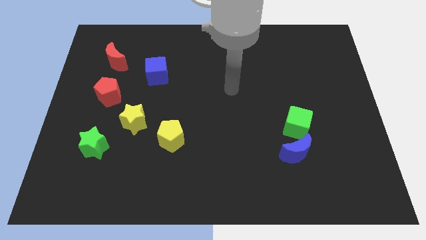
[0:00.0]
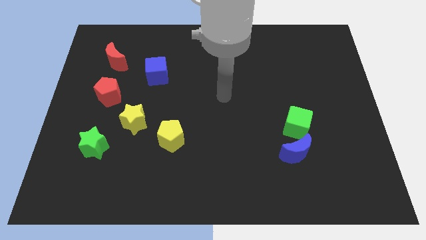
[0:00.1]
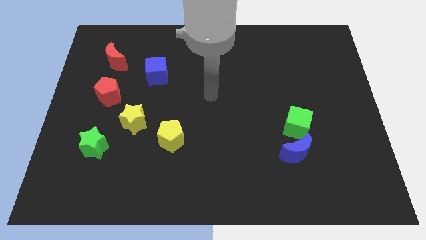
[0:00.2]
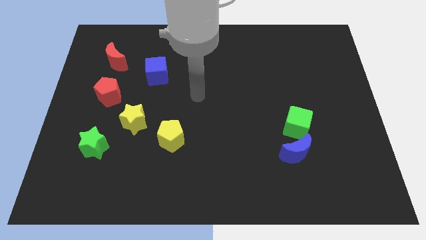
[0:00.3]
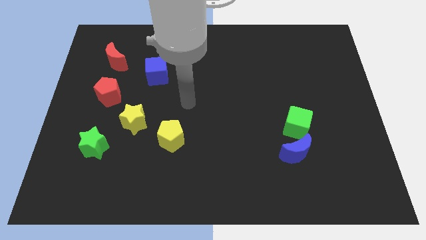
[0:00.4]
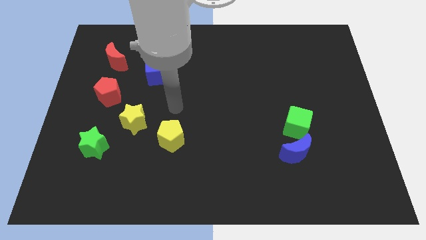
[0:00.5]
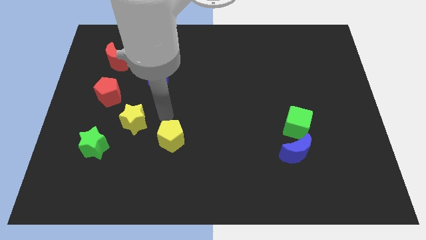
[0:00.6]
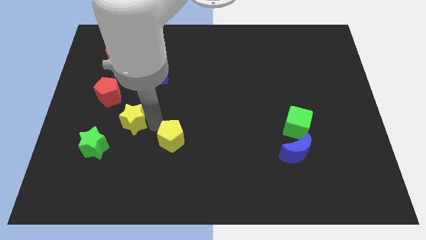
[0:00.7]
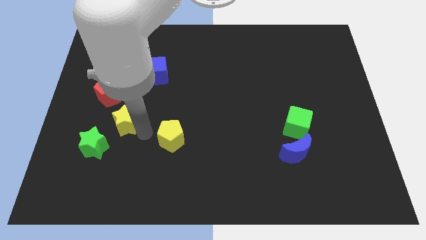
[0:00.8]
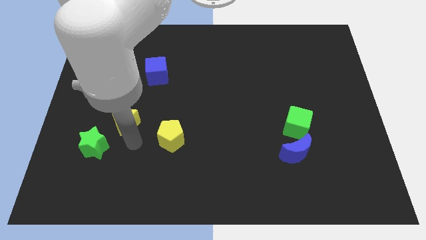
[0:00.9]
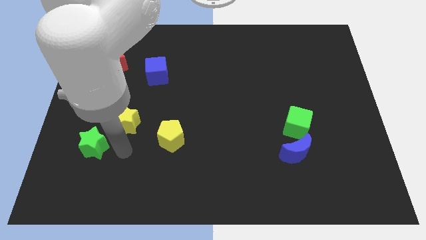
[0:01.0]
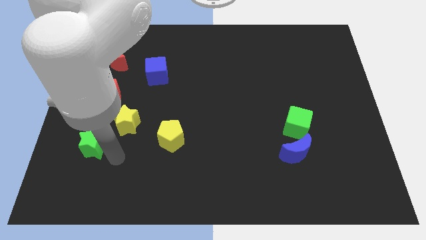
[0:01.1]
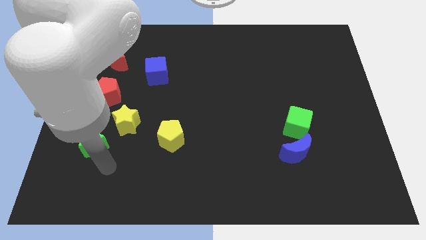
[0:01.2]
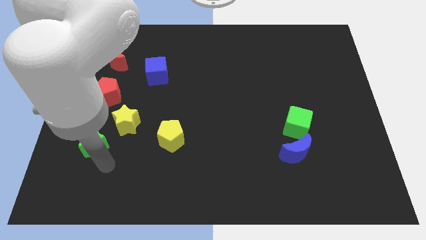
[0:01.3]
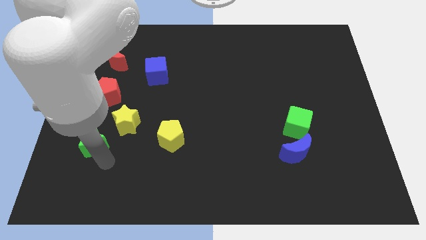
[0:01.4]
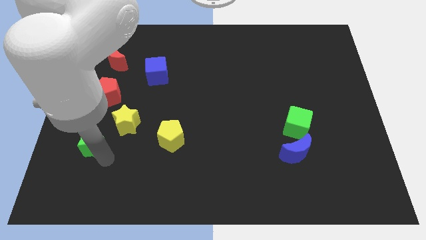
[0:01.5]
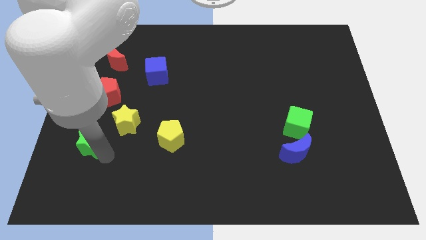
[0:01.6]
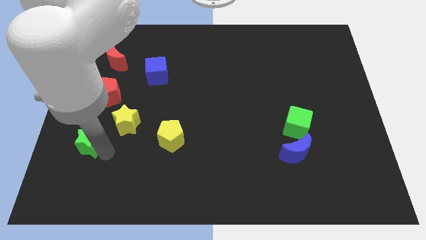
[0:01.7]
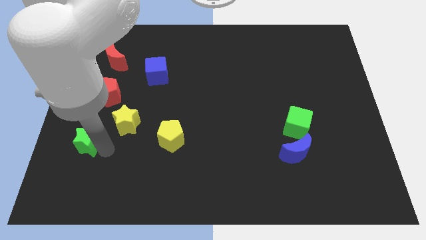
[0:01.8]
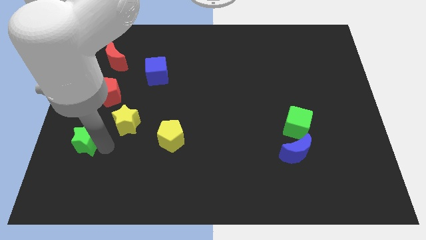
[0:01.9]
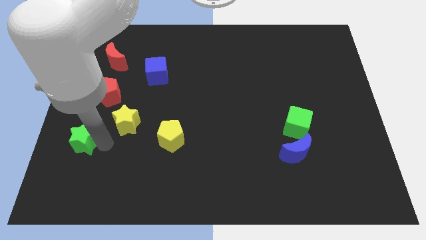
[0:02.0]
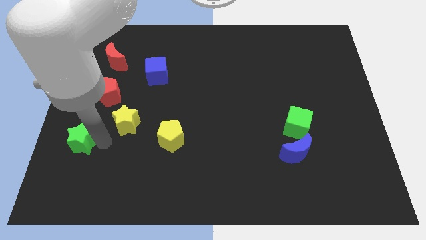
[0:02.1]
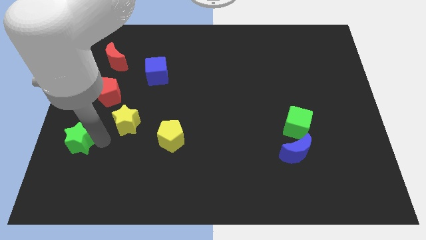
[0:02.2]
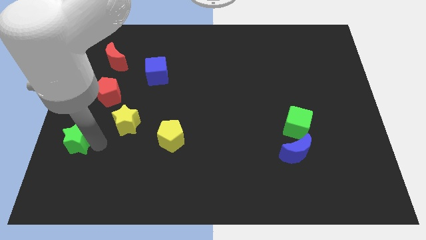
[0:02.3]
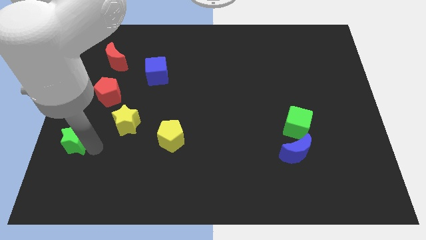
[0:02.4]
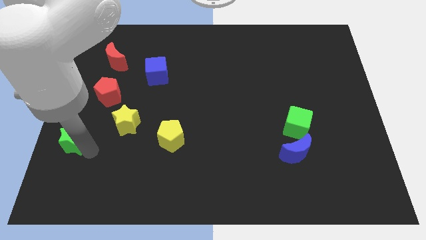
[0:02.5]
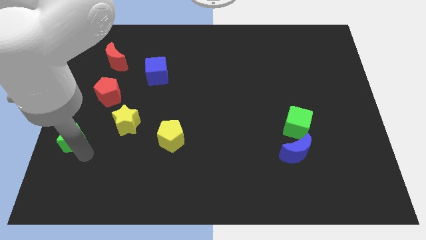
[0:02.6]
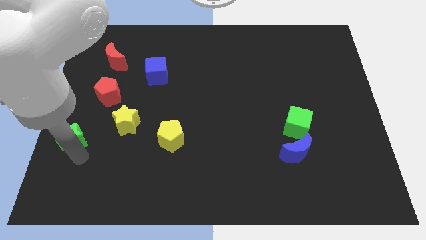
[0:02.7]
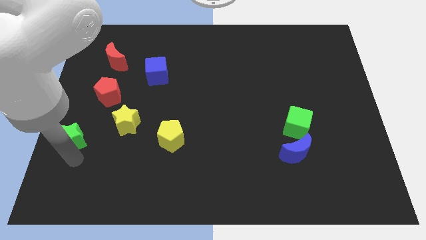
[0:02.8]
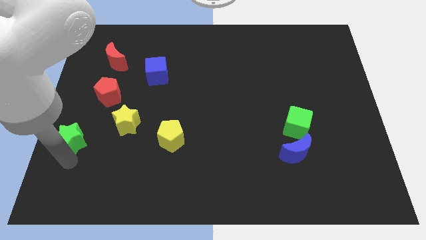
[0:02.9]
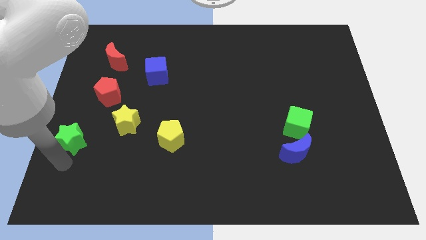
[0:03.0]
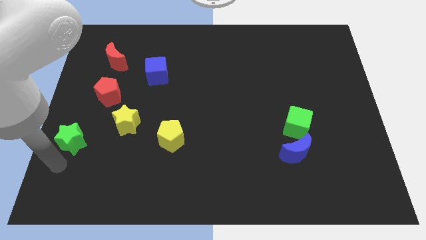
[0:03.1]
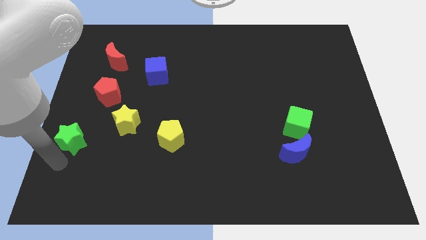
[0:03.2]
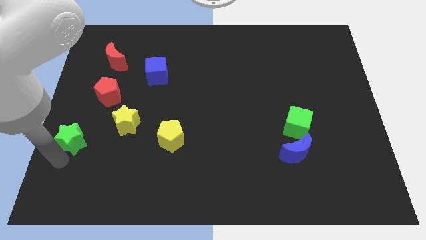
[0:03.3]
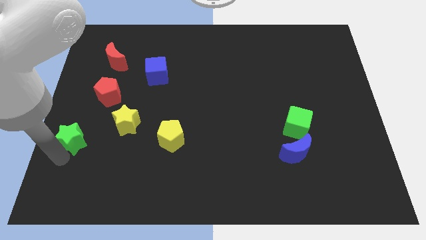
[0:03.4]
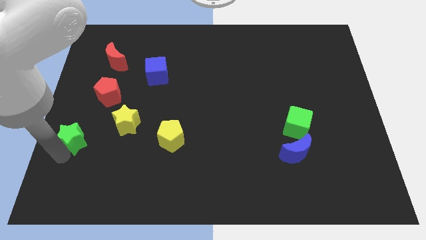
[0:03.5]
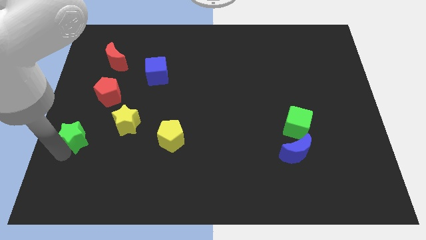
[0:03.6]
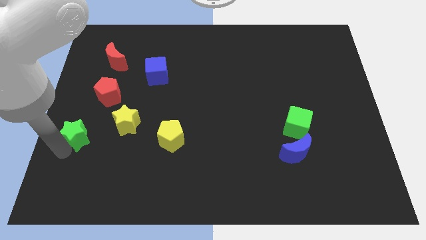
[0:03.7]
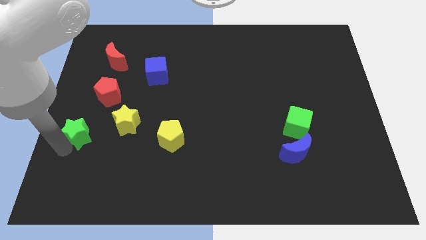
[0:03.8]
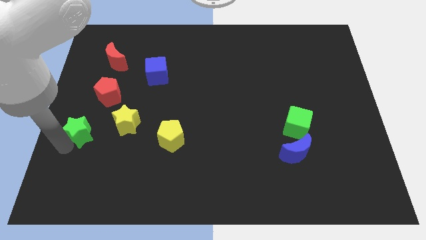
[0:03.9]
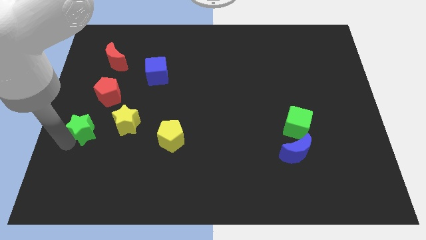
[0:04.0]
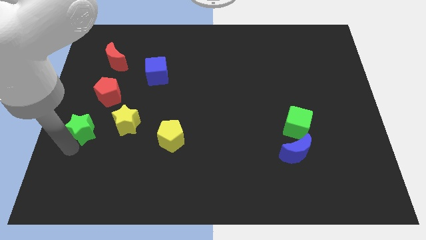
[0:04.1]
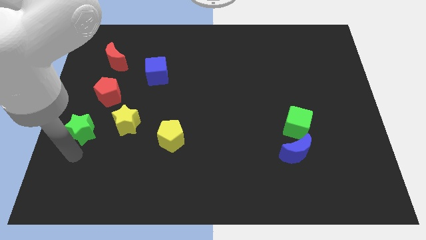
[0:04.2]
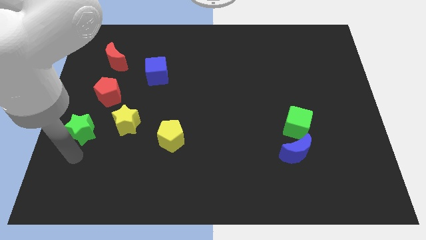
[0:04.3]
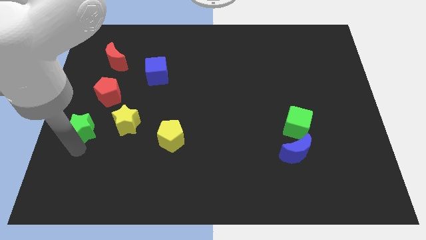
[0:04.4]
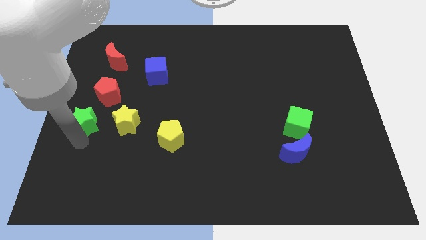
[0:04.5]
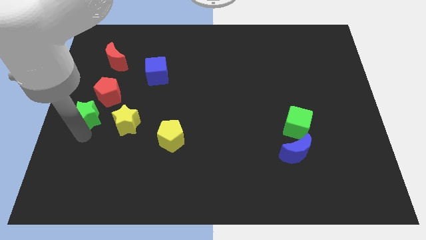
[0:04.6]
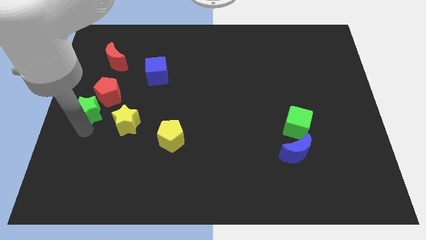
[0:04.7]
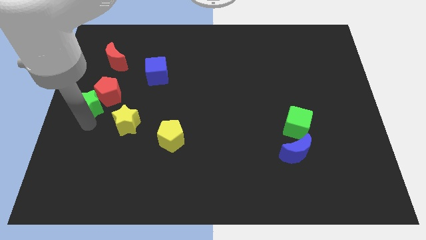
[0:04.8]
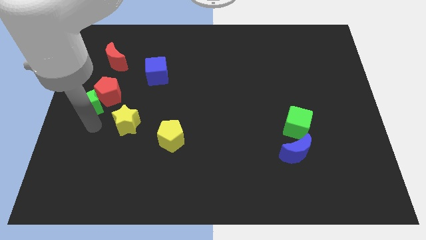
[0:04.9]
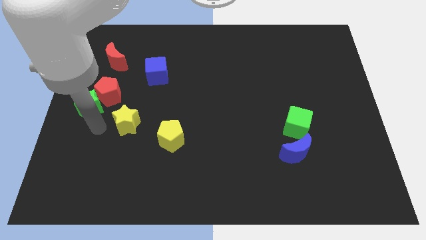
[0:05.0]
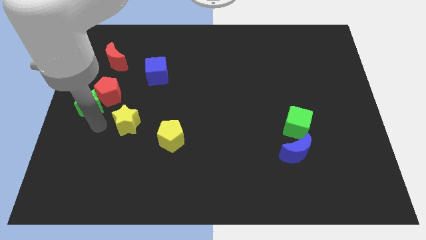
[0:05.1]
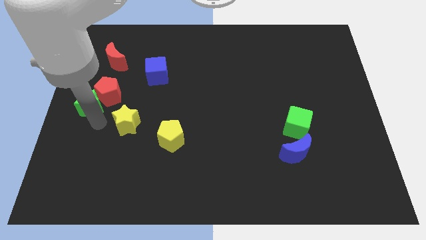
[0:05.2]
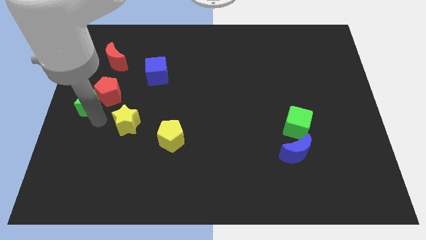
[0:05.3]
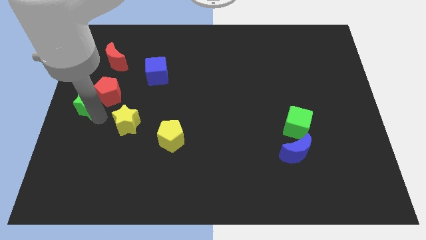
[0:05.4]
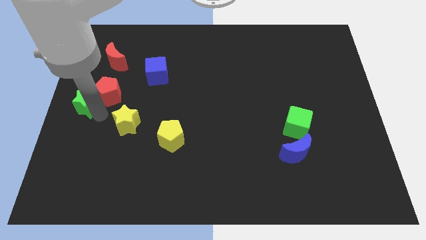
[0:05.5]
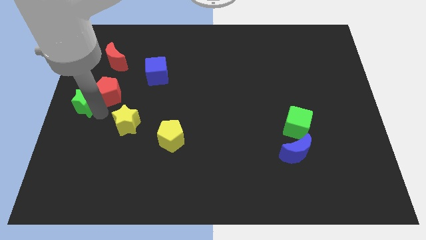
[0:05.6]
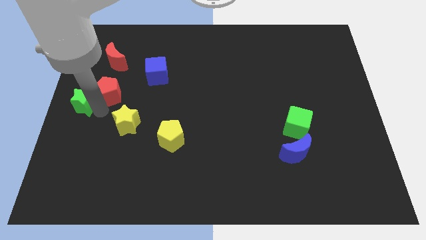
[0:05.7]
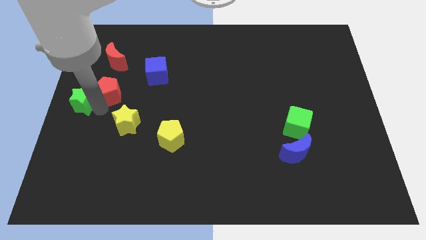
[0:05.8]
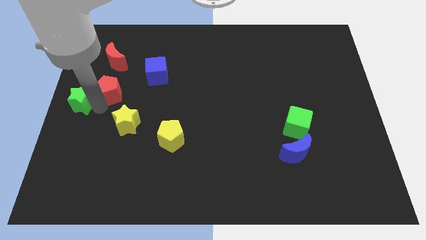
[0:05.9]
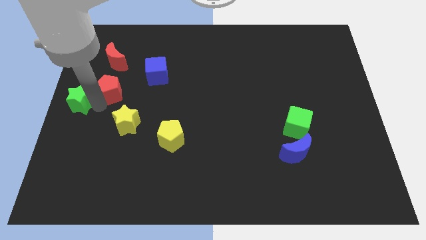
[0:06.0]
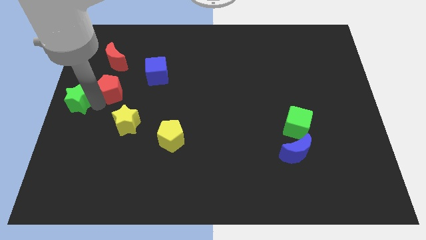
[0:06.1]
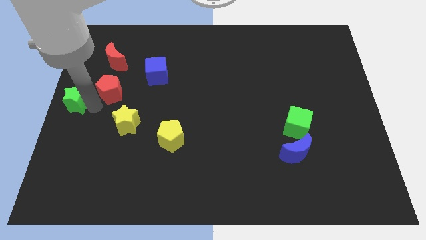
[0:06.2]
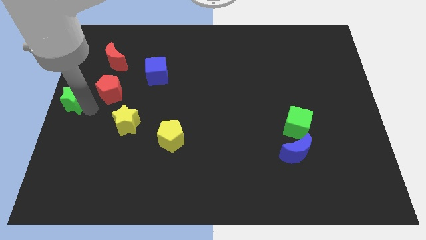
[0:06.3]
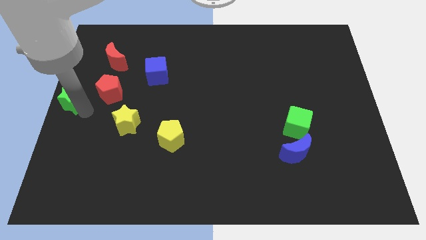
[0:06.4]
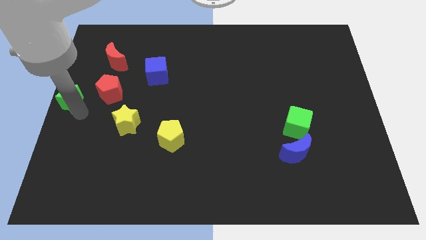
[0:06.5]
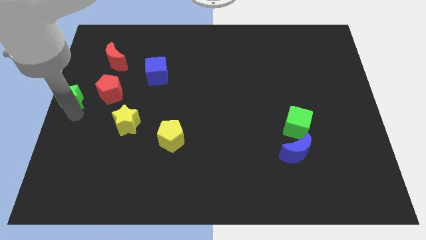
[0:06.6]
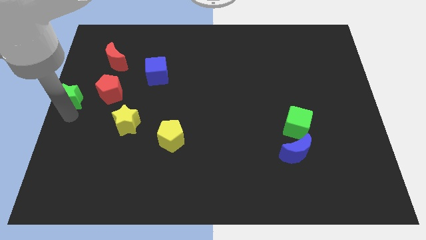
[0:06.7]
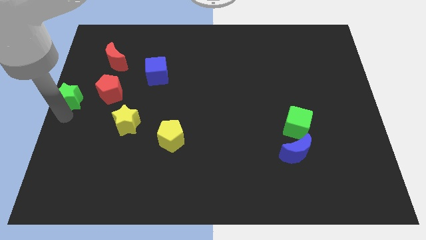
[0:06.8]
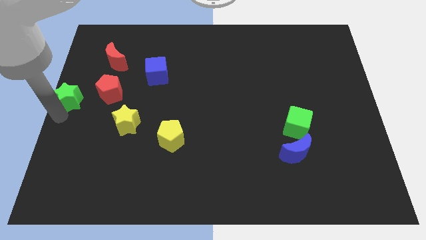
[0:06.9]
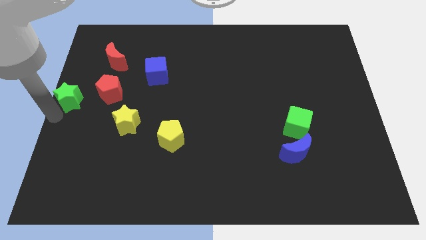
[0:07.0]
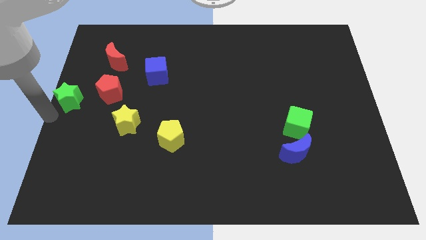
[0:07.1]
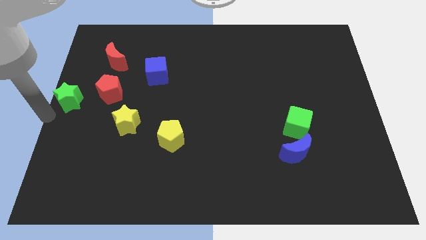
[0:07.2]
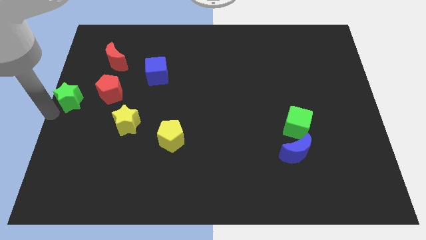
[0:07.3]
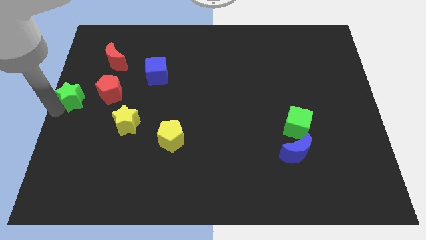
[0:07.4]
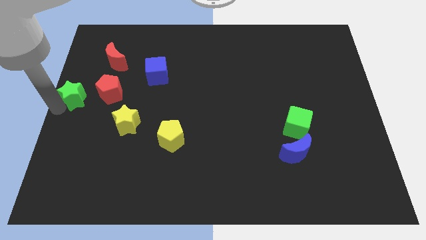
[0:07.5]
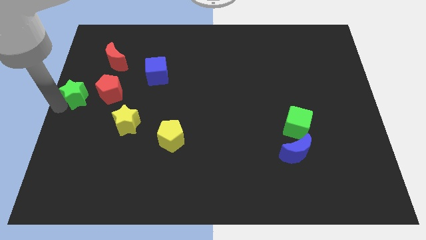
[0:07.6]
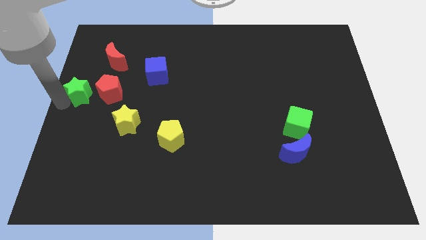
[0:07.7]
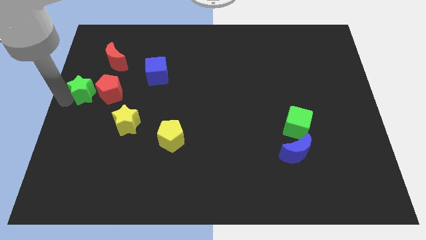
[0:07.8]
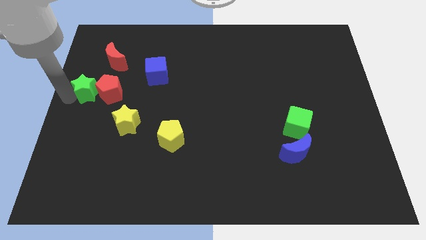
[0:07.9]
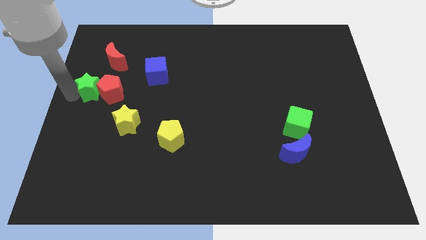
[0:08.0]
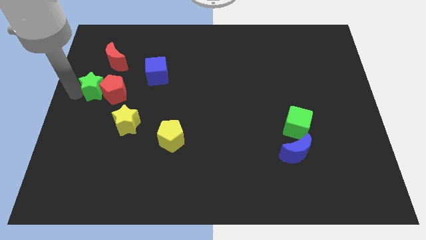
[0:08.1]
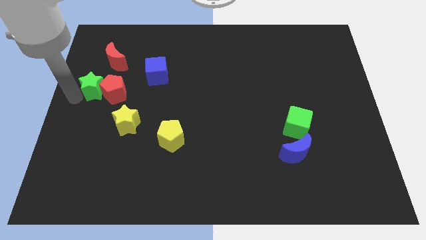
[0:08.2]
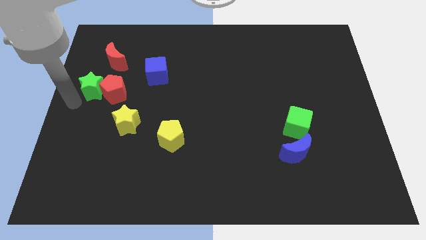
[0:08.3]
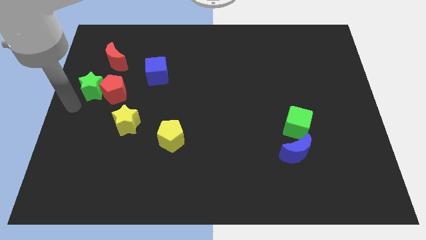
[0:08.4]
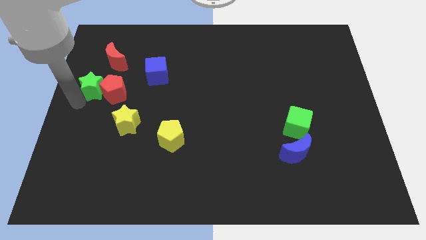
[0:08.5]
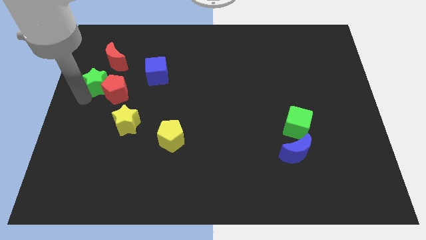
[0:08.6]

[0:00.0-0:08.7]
slide the green star to the left side of the blue cube
